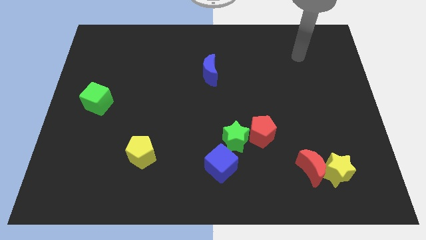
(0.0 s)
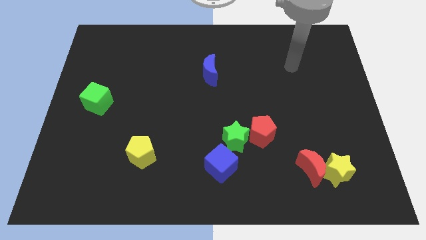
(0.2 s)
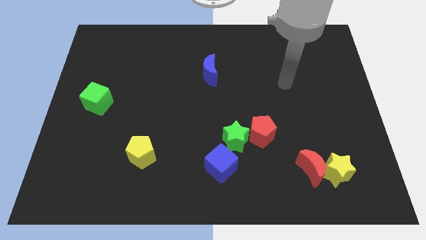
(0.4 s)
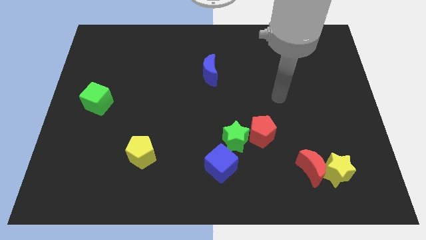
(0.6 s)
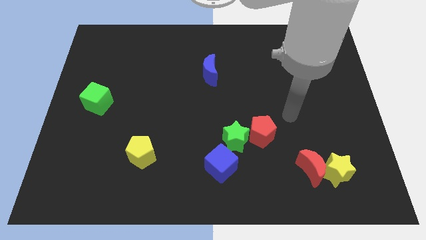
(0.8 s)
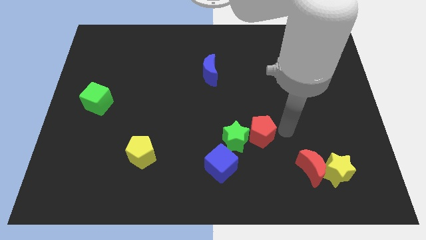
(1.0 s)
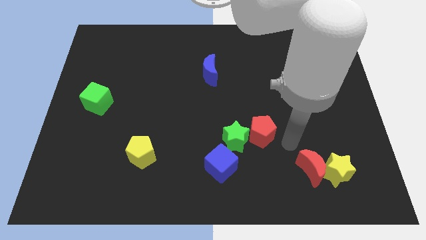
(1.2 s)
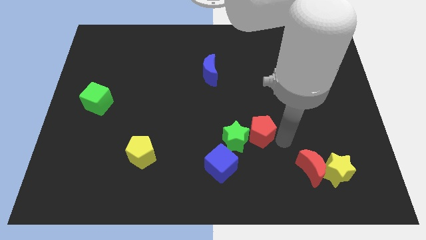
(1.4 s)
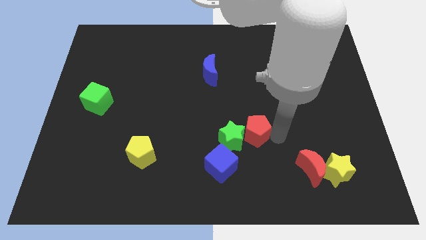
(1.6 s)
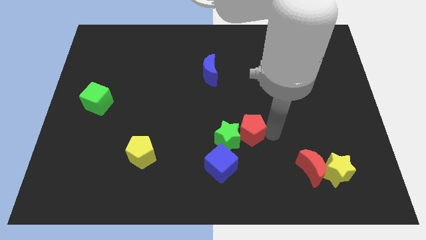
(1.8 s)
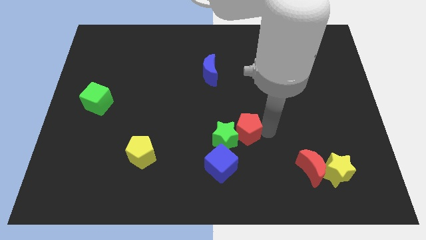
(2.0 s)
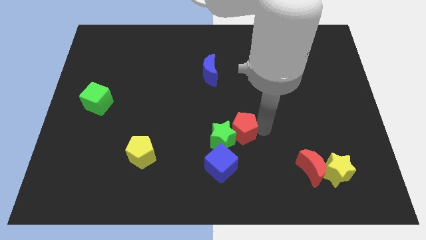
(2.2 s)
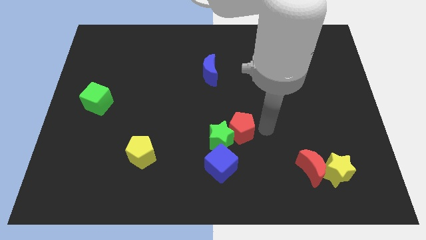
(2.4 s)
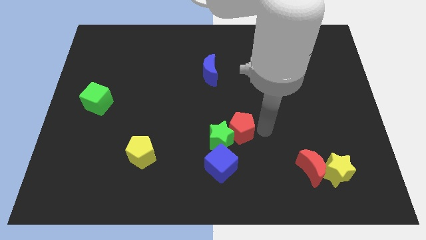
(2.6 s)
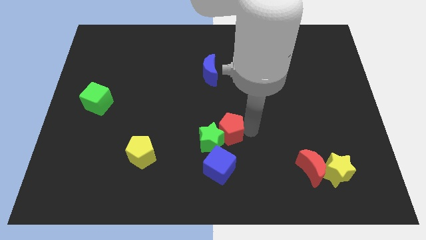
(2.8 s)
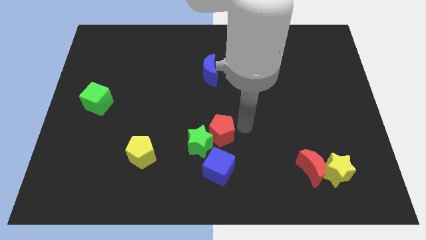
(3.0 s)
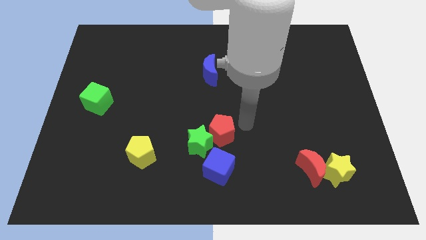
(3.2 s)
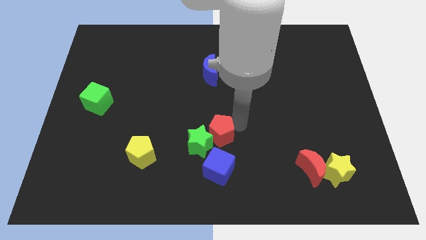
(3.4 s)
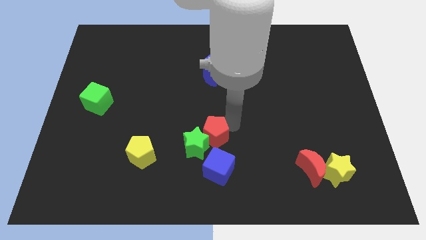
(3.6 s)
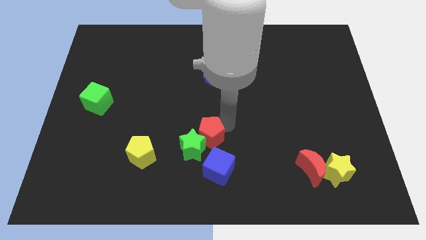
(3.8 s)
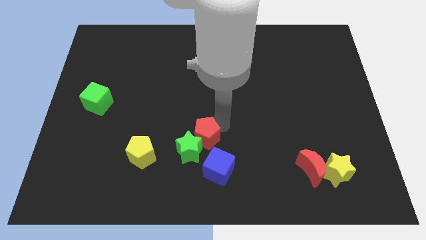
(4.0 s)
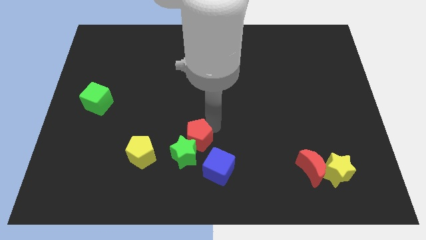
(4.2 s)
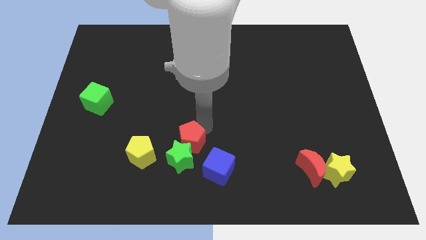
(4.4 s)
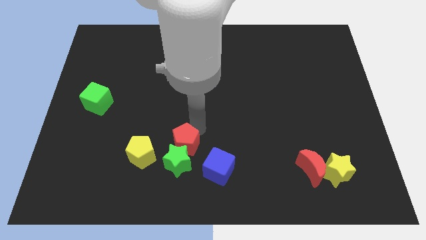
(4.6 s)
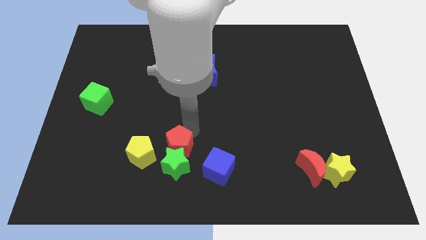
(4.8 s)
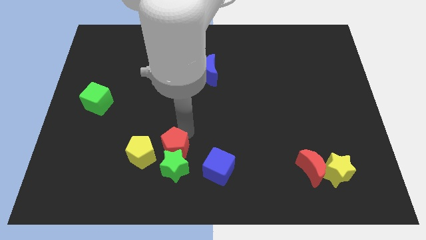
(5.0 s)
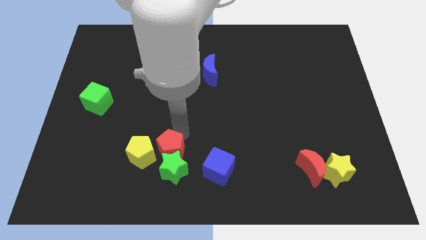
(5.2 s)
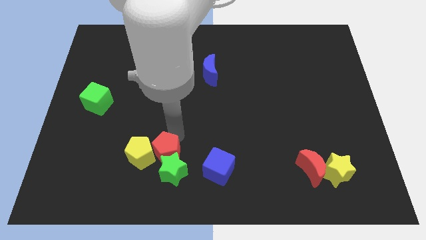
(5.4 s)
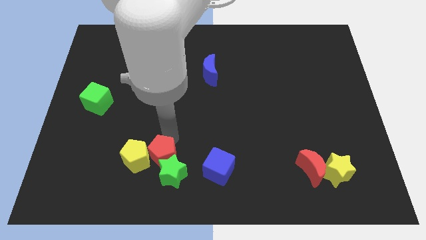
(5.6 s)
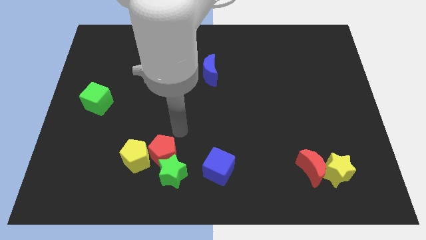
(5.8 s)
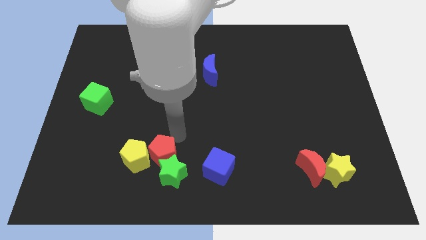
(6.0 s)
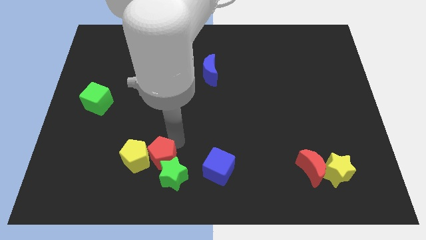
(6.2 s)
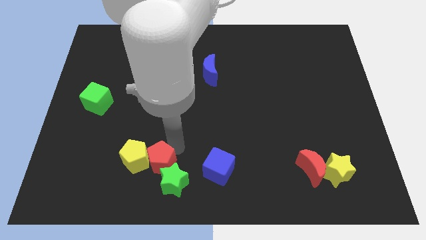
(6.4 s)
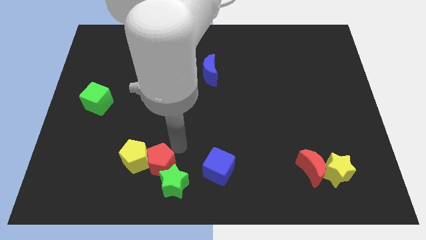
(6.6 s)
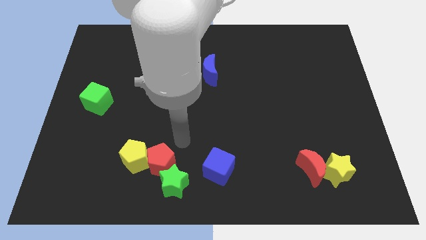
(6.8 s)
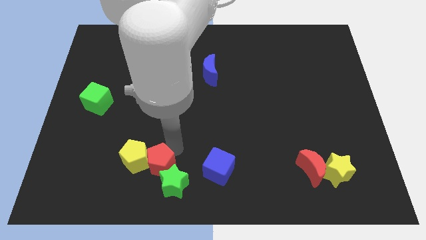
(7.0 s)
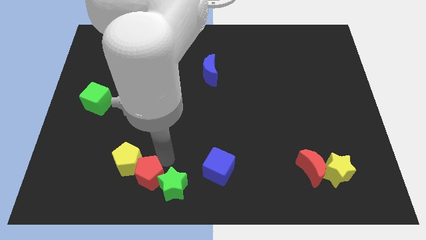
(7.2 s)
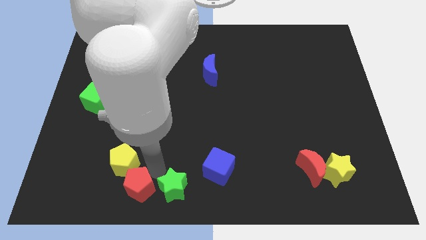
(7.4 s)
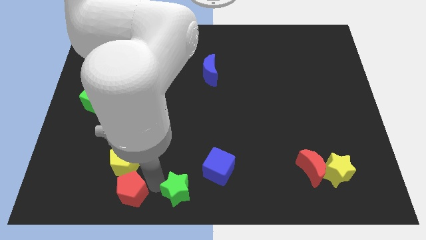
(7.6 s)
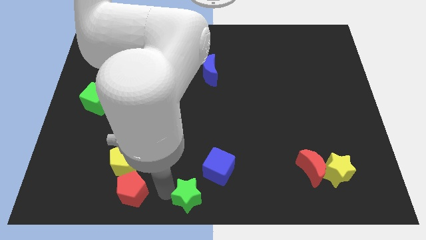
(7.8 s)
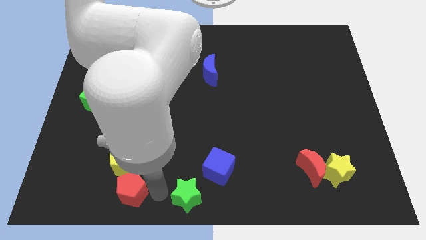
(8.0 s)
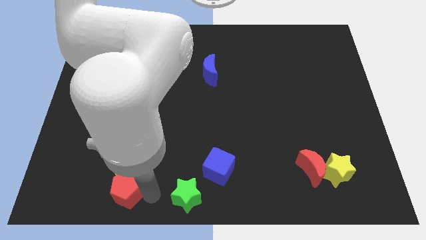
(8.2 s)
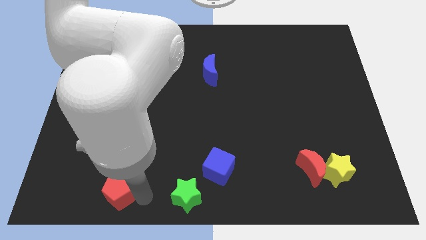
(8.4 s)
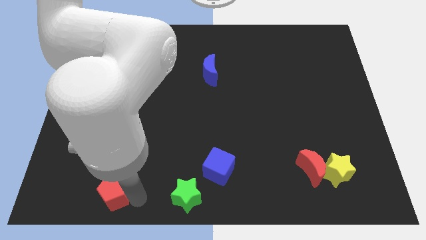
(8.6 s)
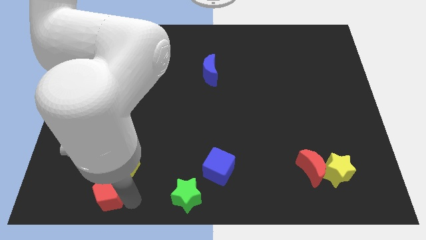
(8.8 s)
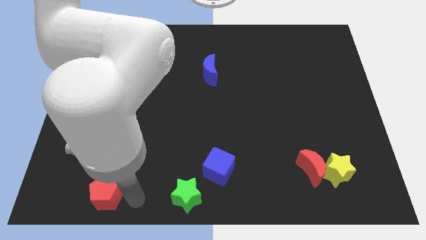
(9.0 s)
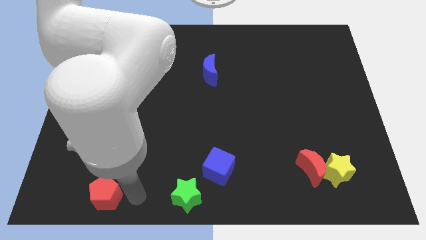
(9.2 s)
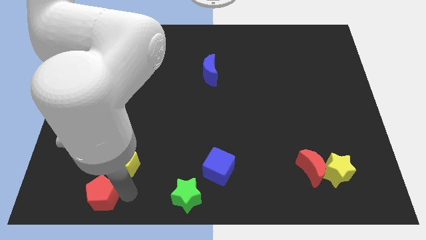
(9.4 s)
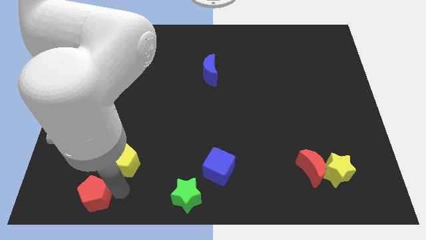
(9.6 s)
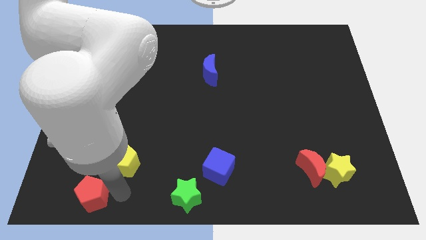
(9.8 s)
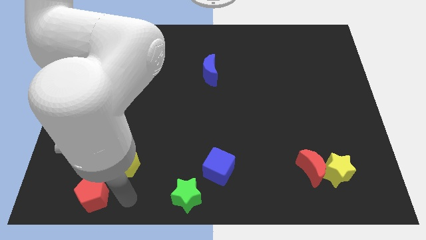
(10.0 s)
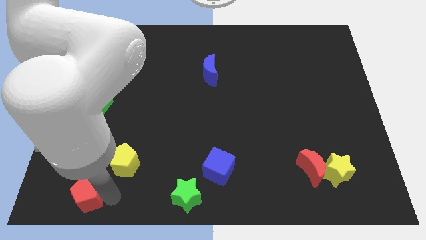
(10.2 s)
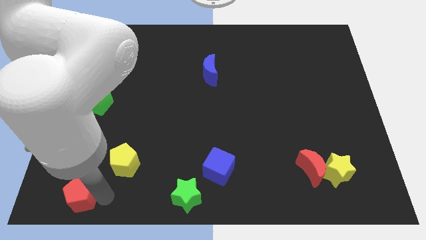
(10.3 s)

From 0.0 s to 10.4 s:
put the red pentagon to the bottom left of the board

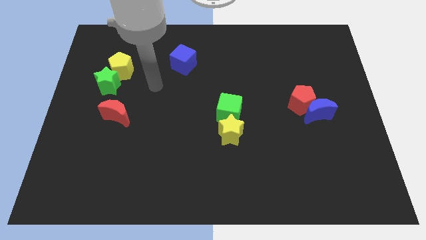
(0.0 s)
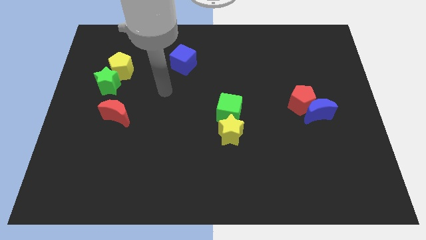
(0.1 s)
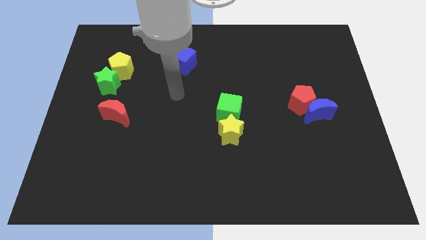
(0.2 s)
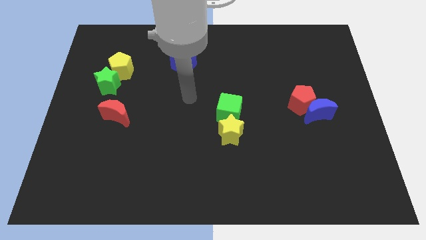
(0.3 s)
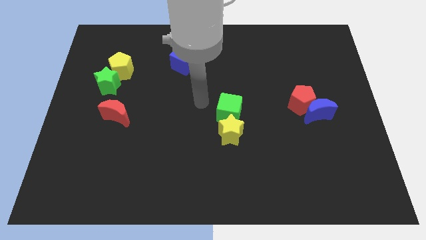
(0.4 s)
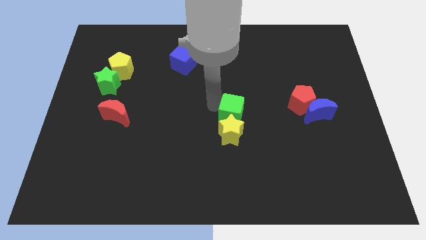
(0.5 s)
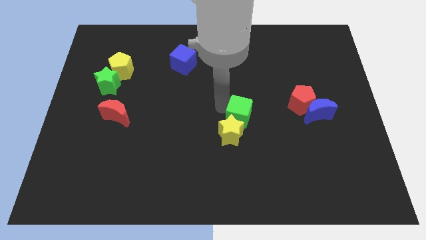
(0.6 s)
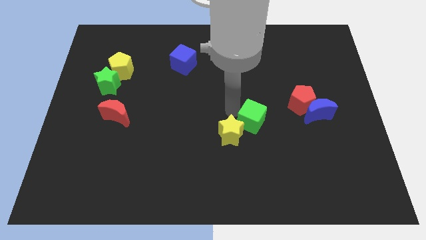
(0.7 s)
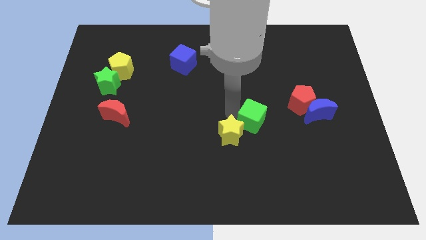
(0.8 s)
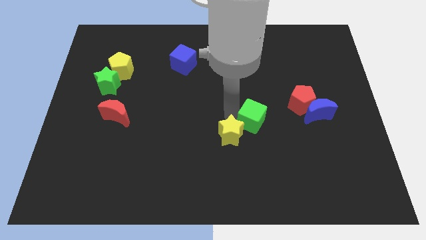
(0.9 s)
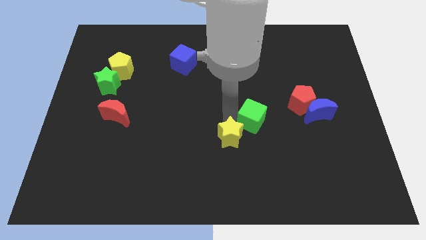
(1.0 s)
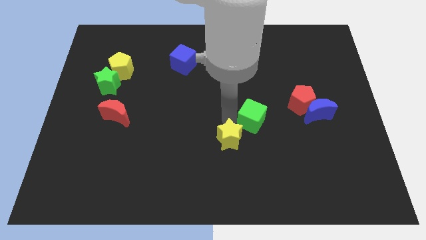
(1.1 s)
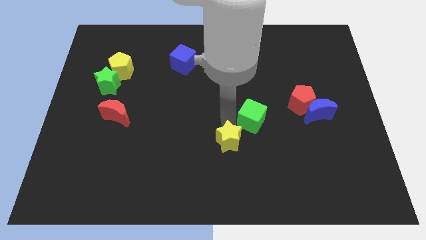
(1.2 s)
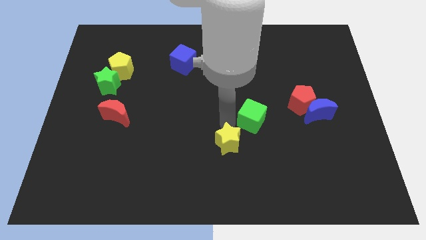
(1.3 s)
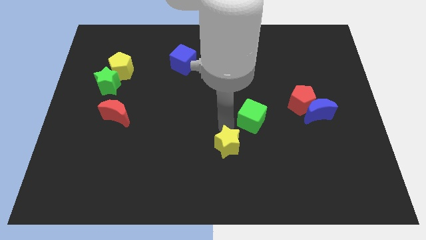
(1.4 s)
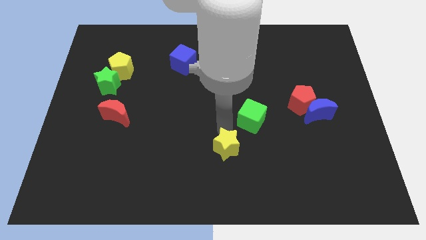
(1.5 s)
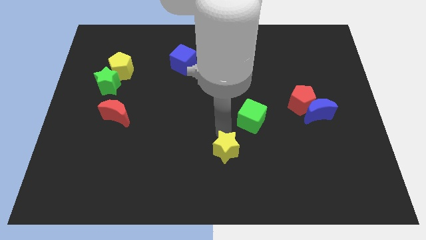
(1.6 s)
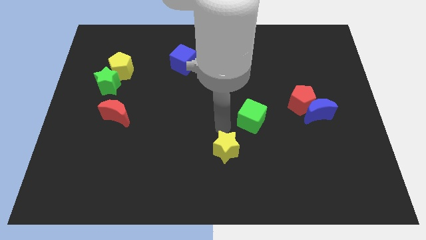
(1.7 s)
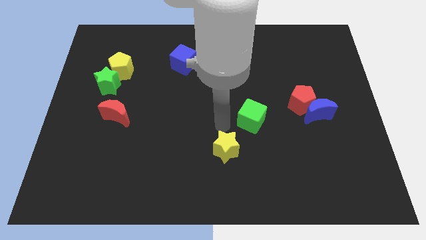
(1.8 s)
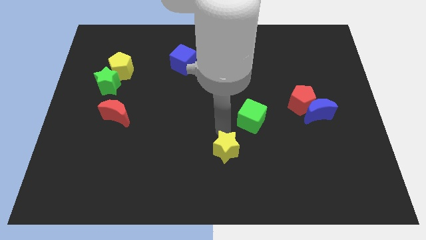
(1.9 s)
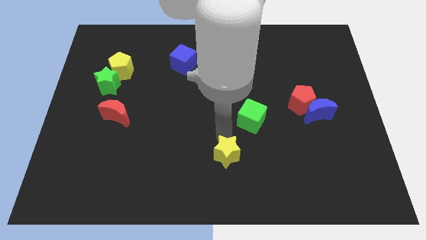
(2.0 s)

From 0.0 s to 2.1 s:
slide the yellow star to the bottom
